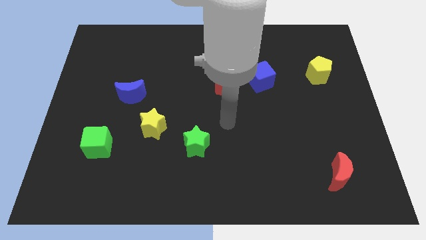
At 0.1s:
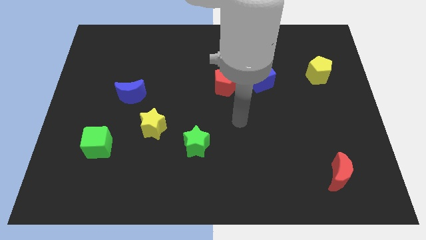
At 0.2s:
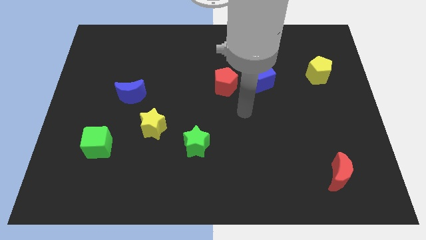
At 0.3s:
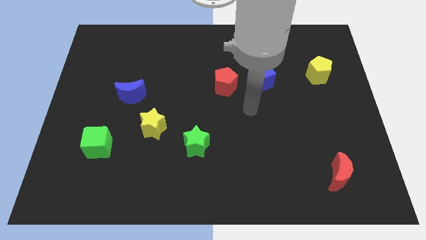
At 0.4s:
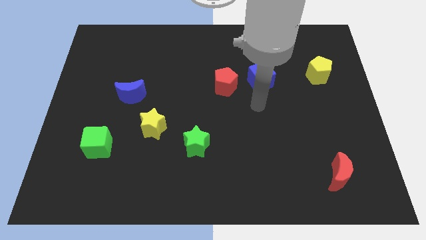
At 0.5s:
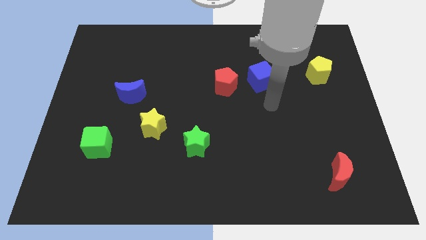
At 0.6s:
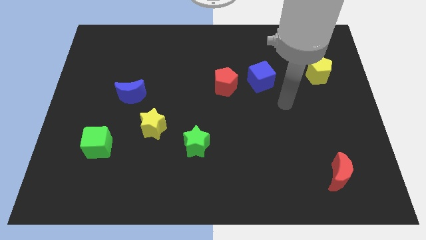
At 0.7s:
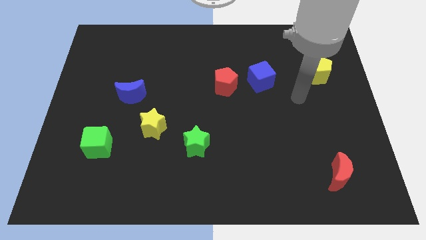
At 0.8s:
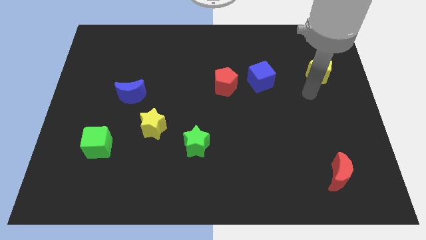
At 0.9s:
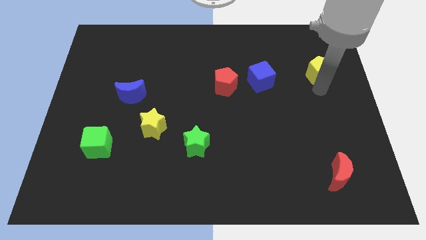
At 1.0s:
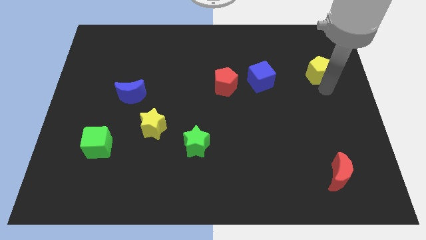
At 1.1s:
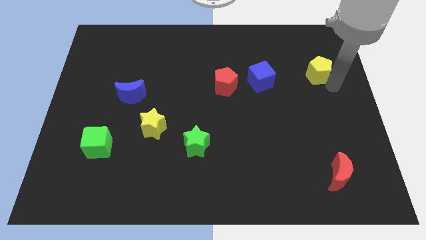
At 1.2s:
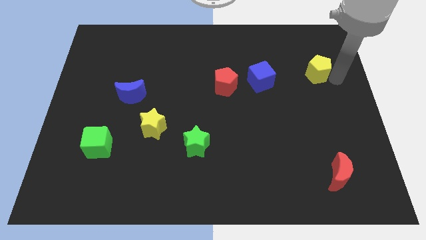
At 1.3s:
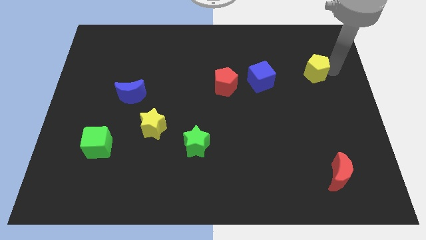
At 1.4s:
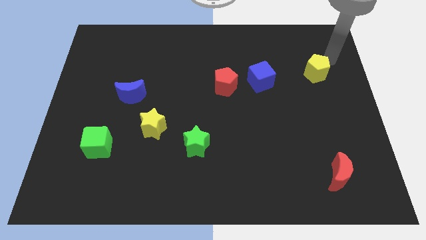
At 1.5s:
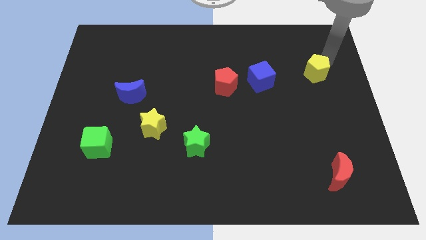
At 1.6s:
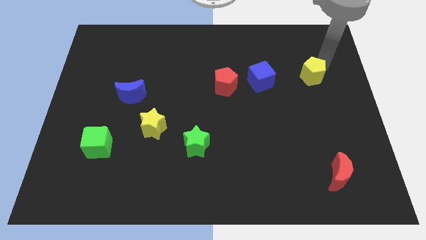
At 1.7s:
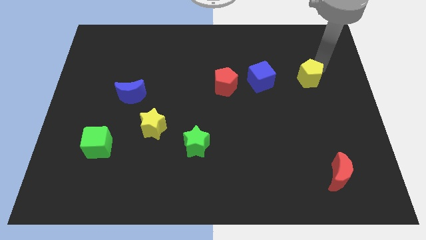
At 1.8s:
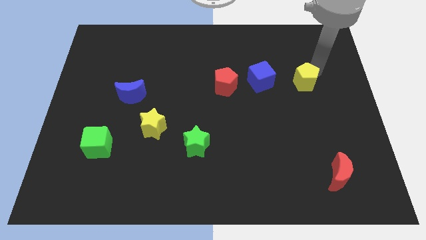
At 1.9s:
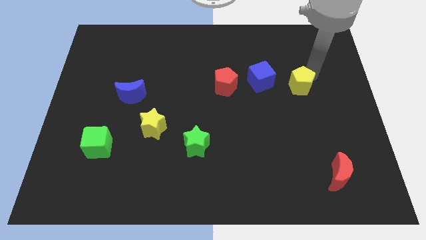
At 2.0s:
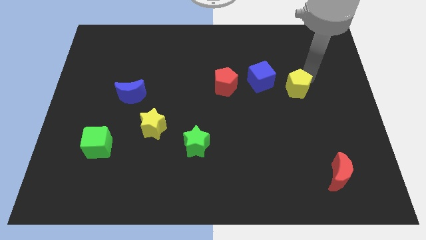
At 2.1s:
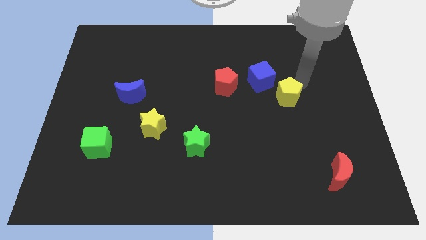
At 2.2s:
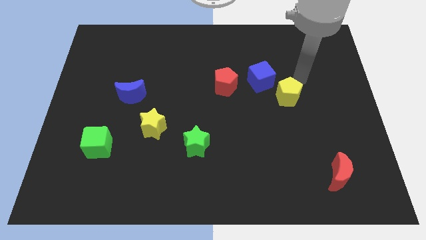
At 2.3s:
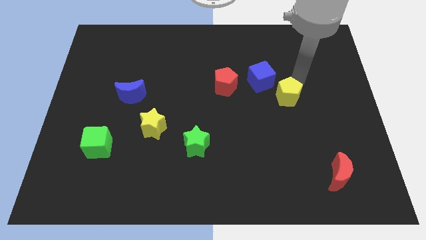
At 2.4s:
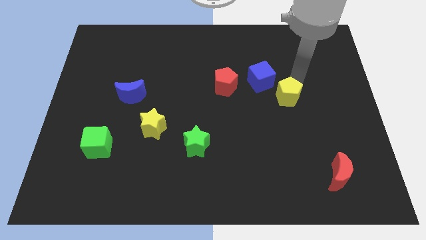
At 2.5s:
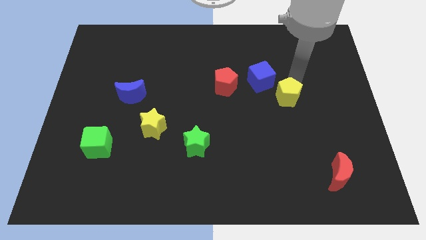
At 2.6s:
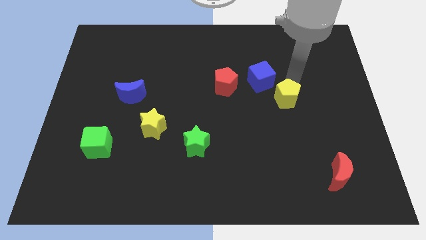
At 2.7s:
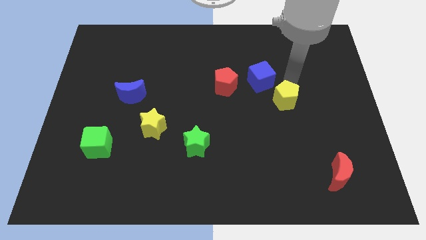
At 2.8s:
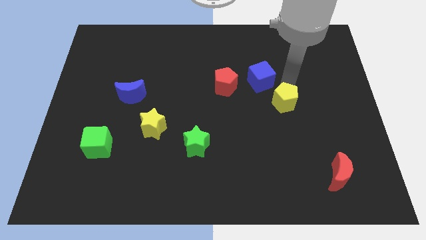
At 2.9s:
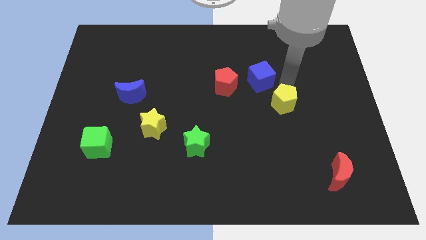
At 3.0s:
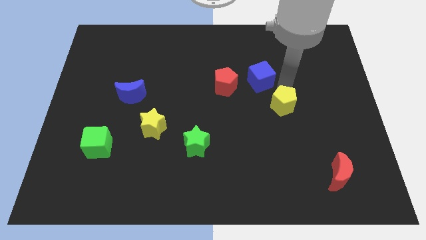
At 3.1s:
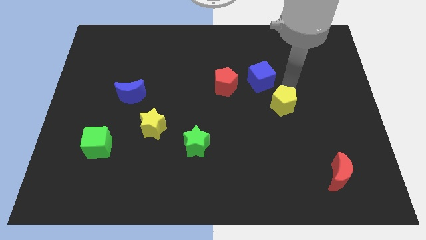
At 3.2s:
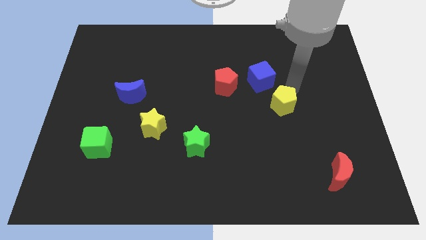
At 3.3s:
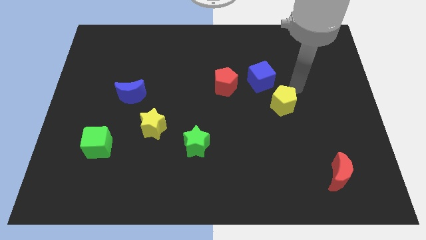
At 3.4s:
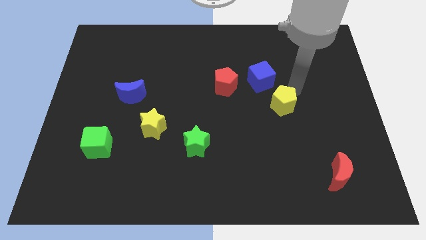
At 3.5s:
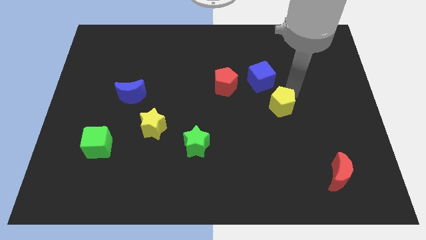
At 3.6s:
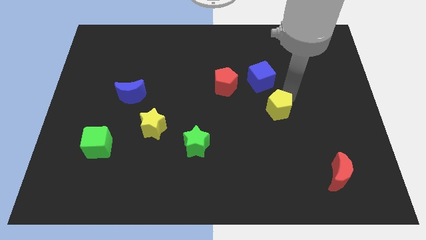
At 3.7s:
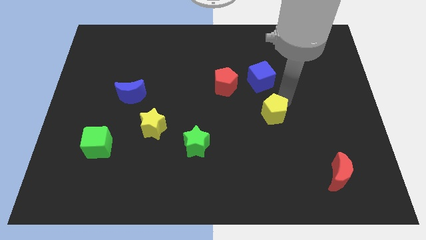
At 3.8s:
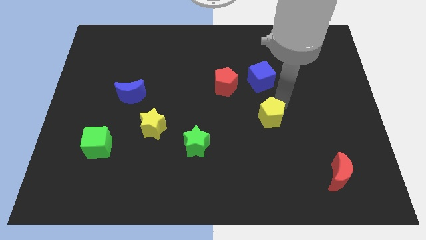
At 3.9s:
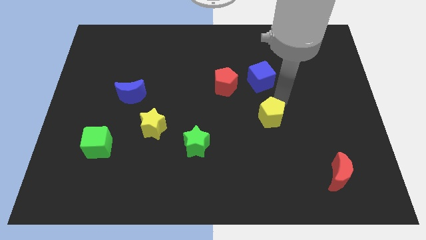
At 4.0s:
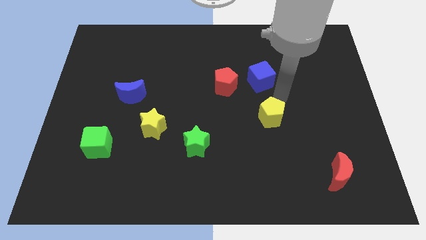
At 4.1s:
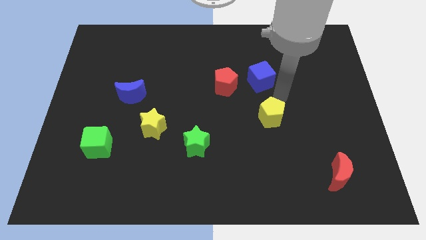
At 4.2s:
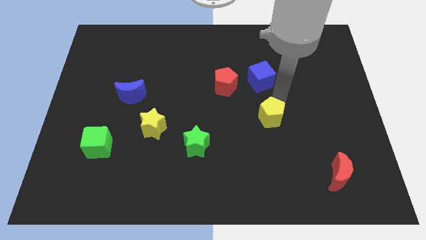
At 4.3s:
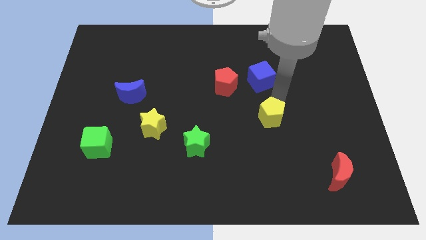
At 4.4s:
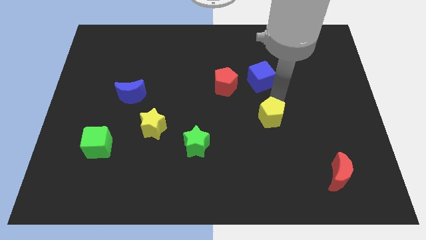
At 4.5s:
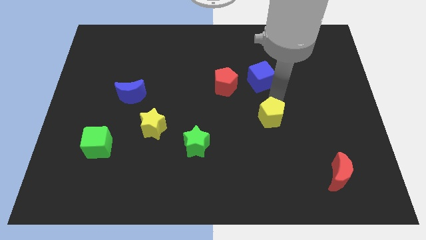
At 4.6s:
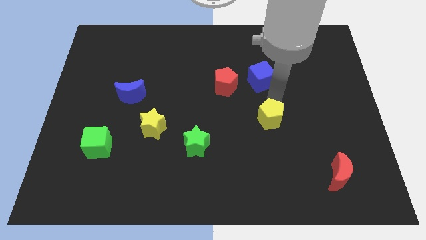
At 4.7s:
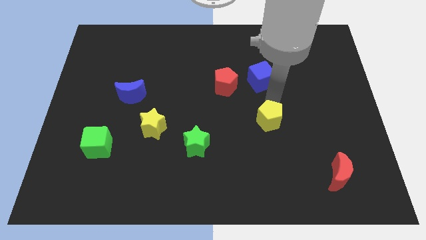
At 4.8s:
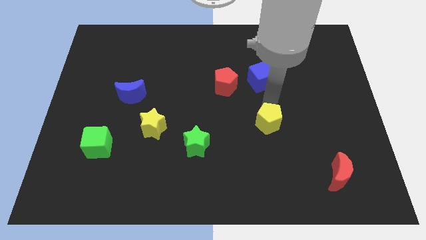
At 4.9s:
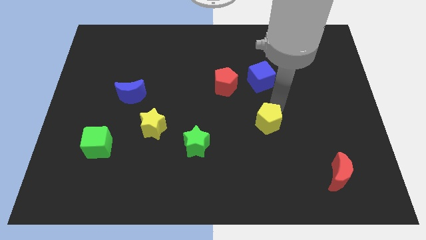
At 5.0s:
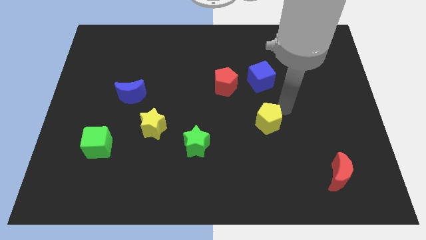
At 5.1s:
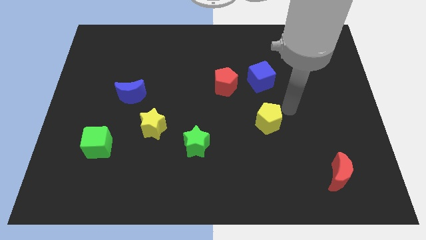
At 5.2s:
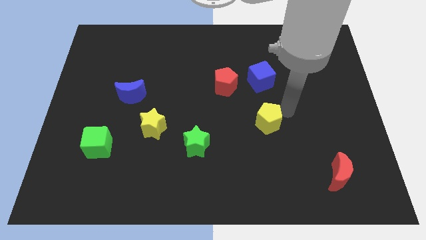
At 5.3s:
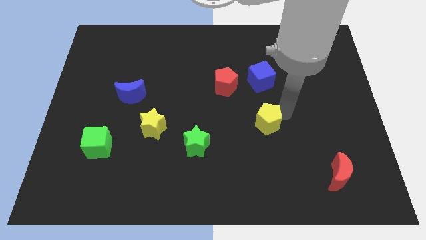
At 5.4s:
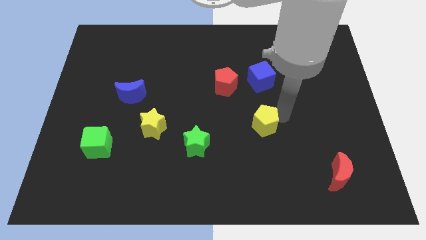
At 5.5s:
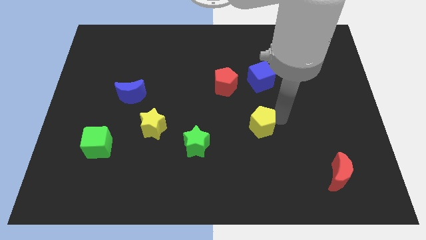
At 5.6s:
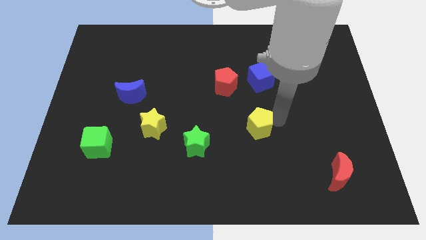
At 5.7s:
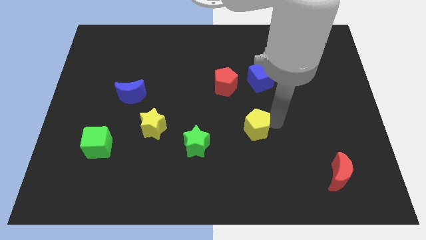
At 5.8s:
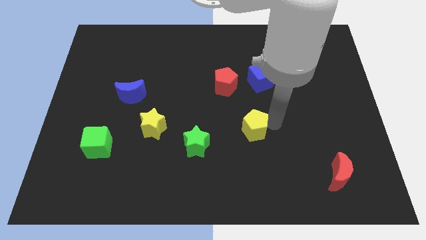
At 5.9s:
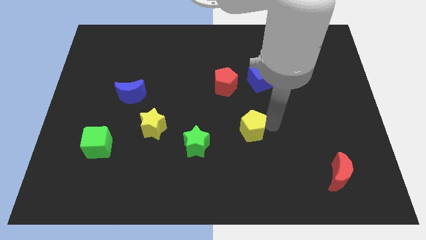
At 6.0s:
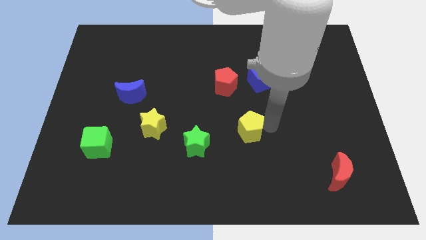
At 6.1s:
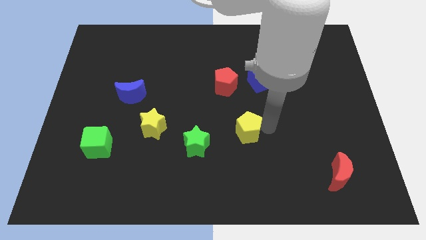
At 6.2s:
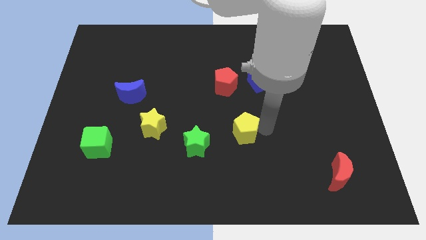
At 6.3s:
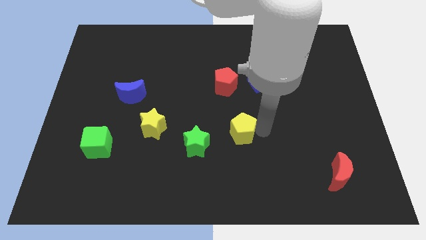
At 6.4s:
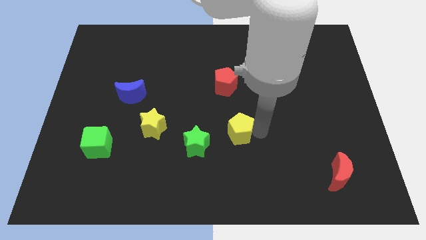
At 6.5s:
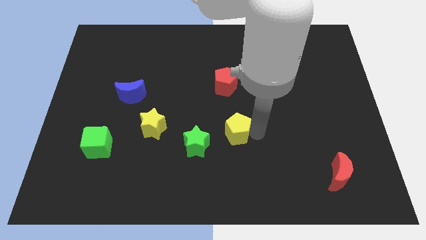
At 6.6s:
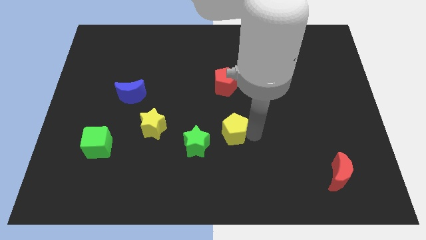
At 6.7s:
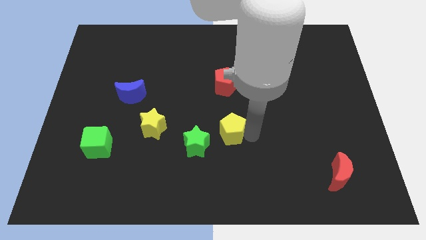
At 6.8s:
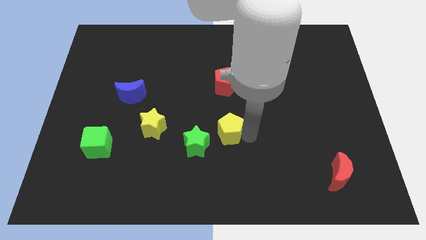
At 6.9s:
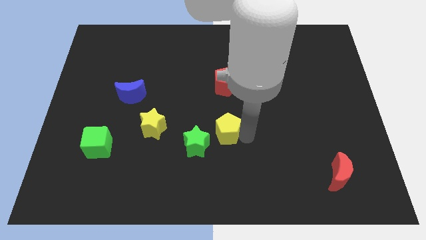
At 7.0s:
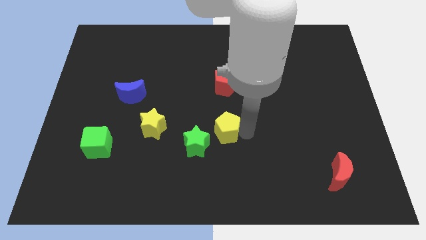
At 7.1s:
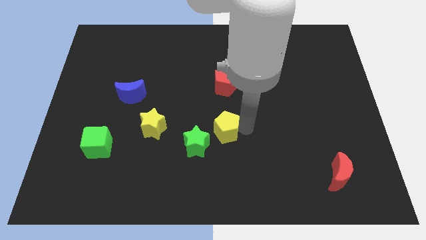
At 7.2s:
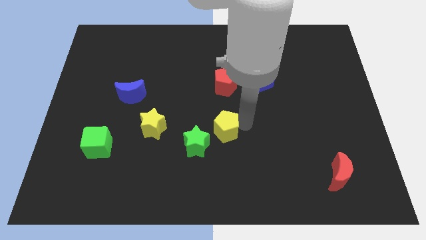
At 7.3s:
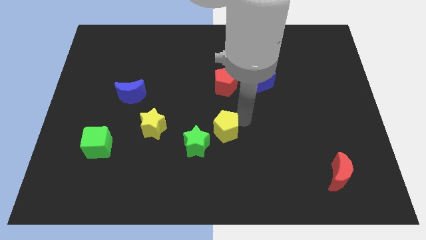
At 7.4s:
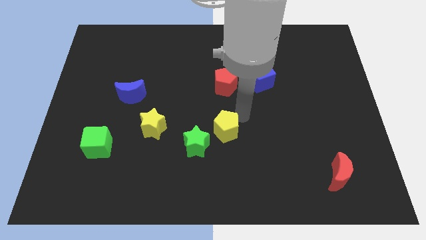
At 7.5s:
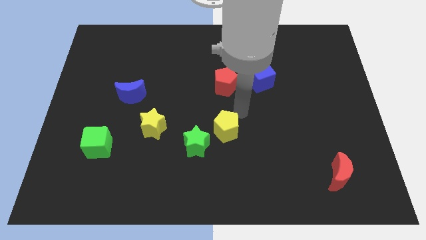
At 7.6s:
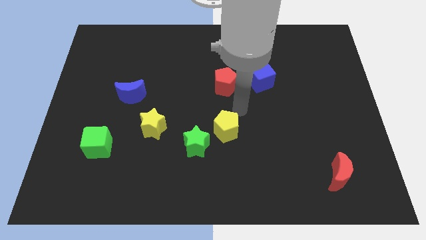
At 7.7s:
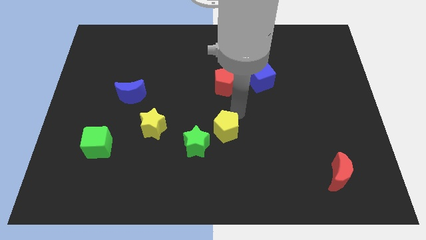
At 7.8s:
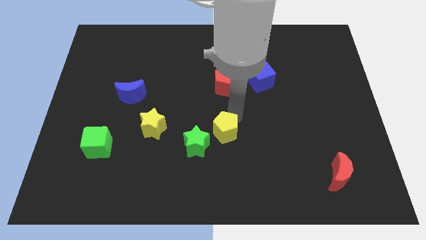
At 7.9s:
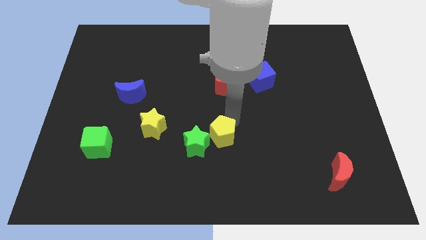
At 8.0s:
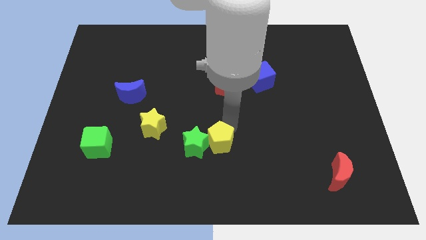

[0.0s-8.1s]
slide the yellow pentagon to the green star
